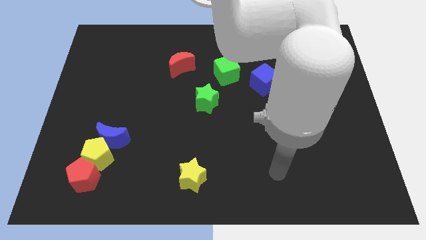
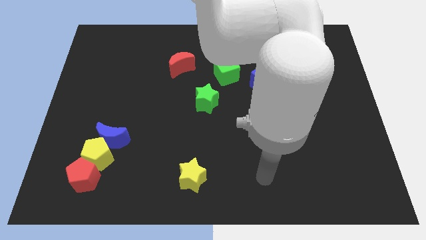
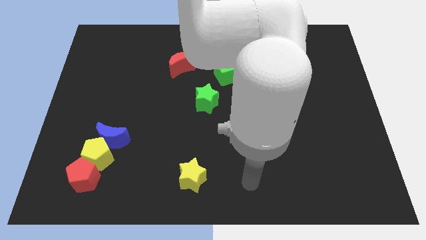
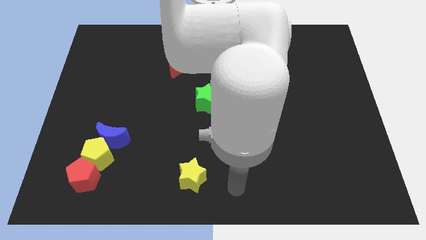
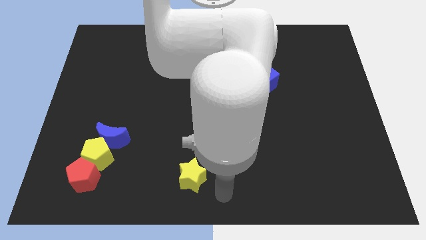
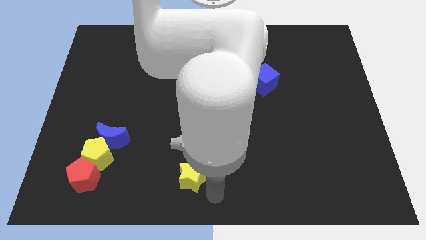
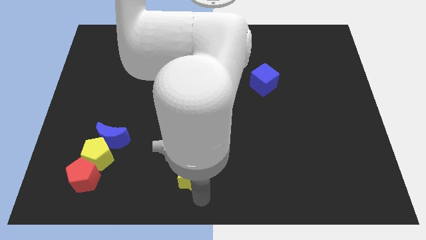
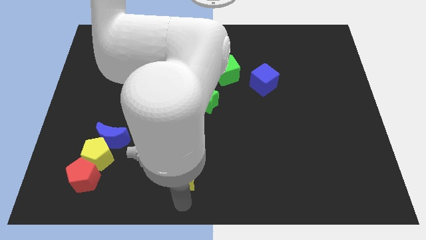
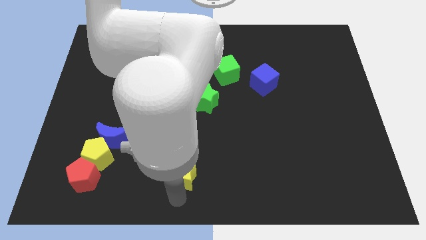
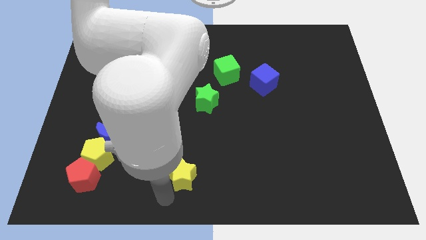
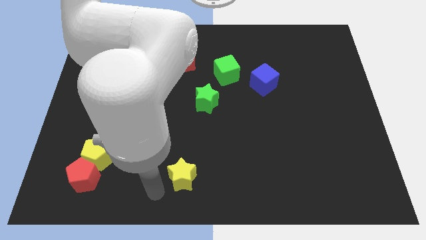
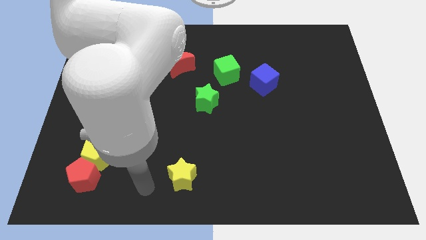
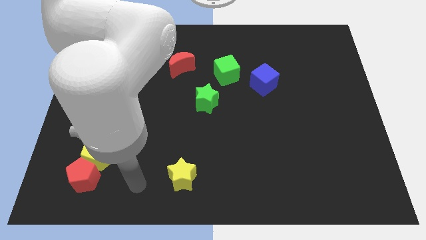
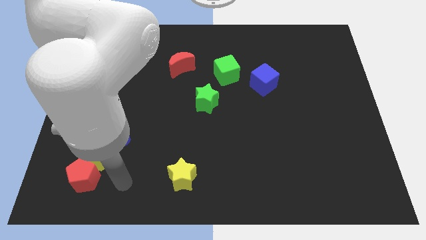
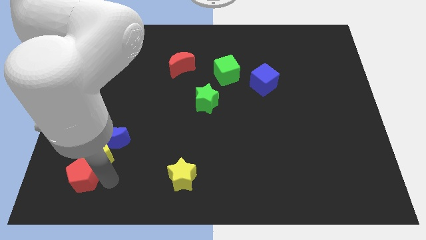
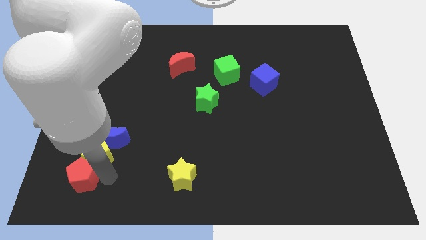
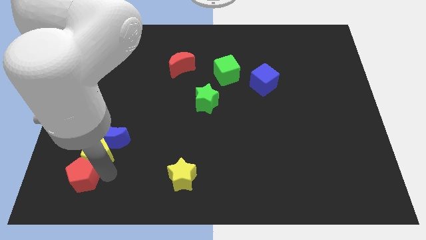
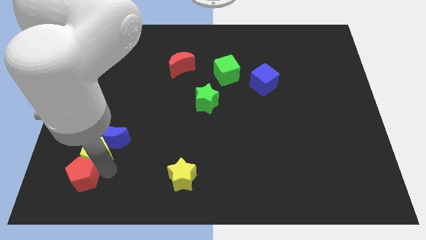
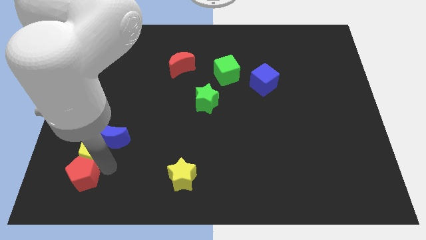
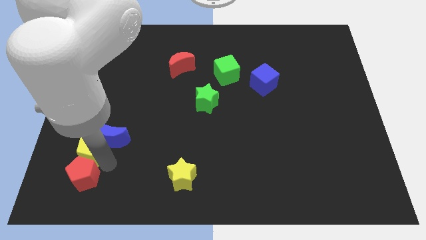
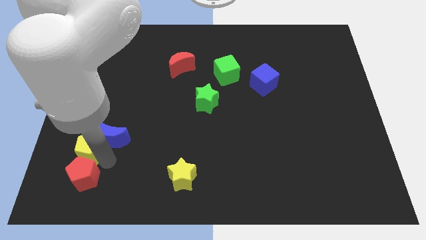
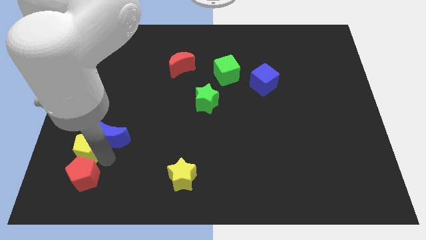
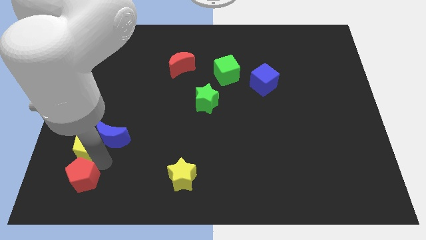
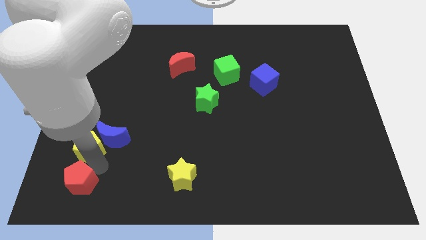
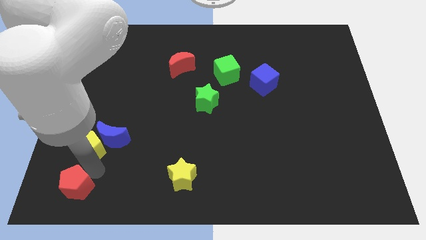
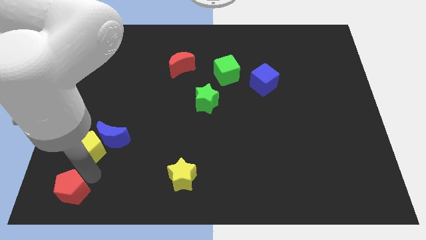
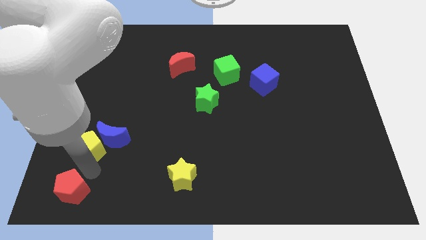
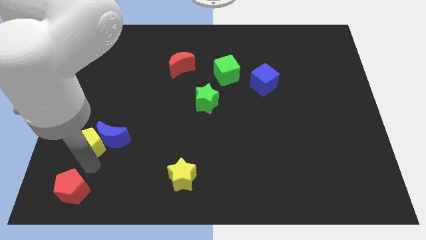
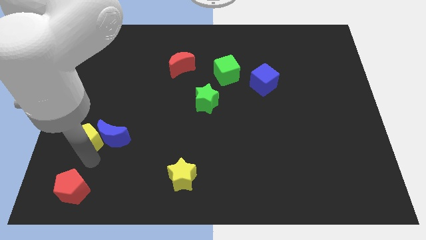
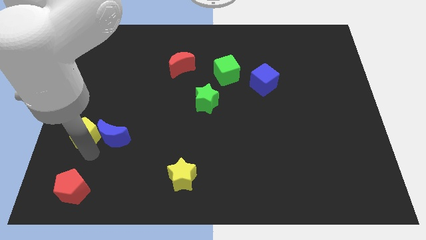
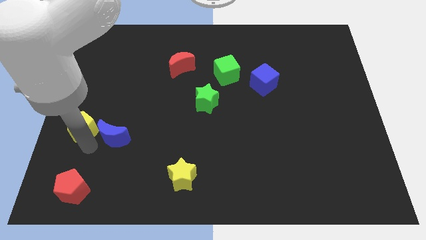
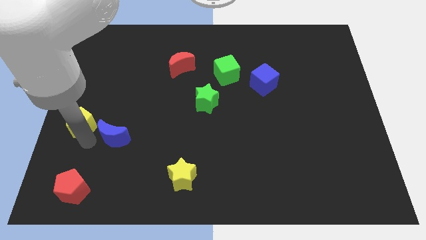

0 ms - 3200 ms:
pull the yellow pentagon apart from the blue moon and red pentagon

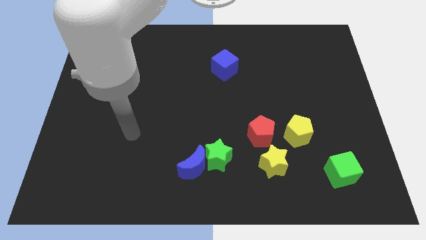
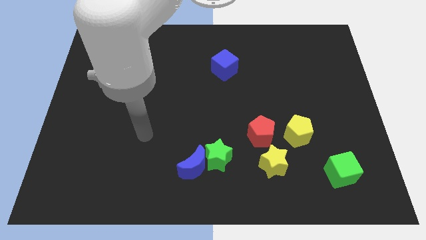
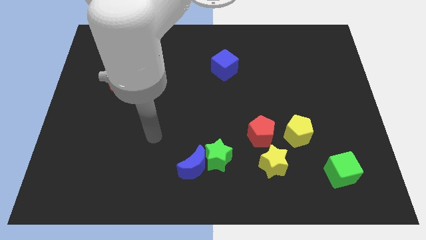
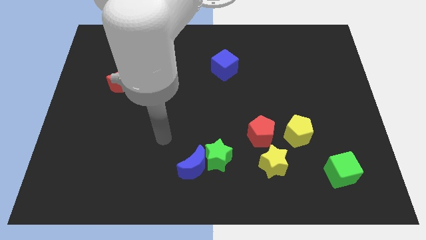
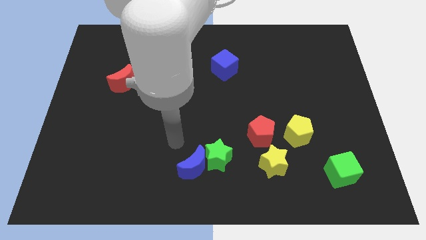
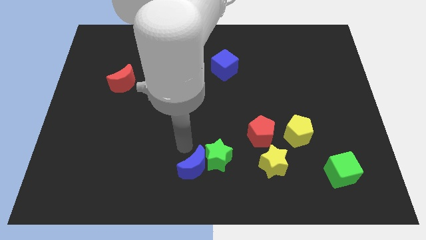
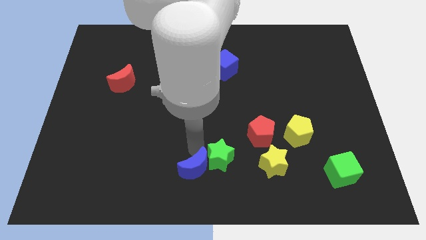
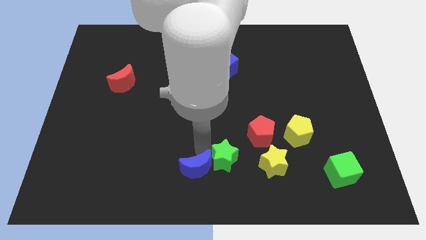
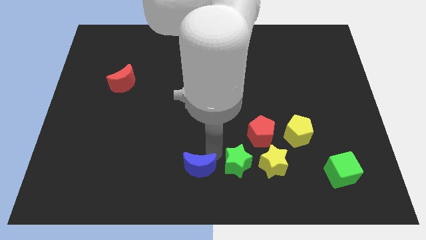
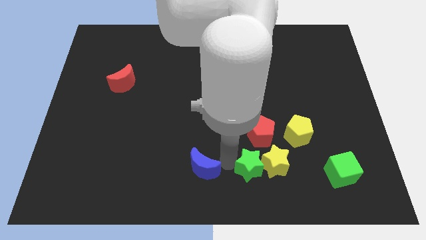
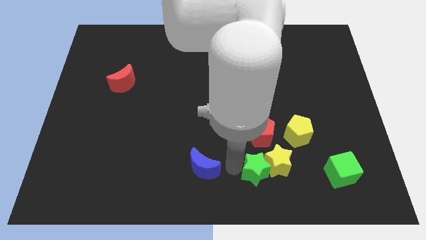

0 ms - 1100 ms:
separate the blue moon from the green star

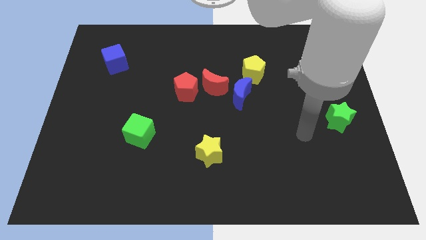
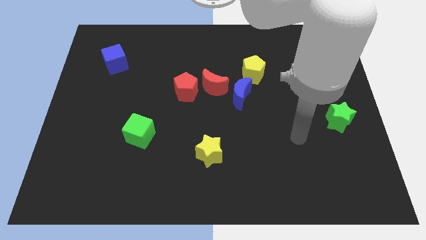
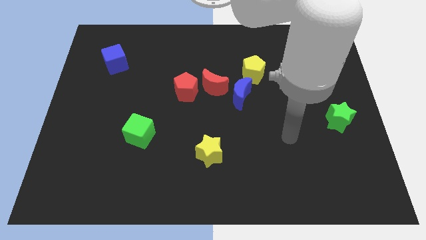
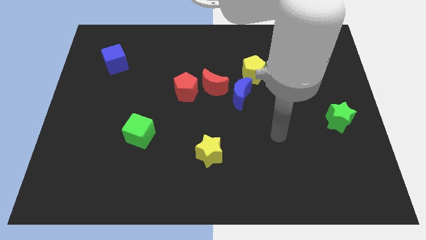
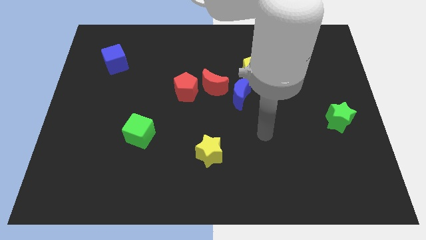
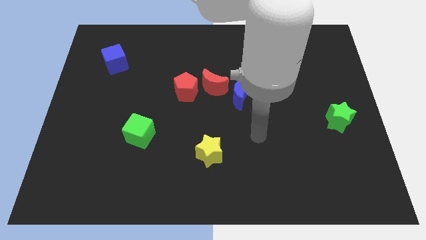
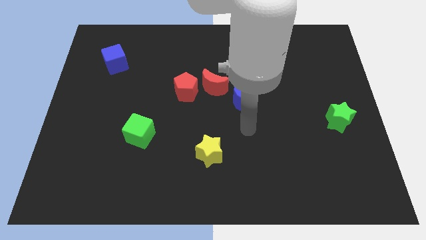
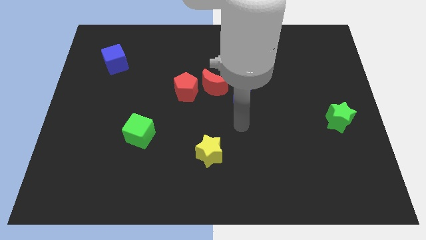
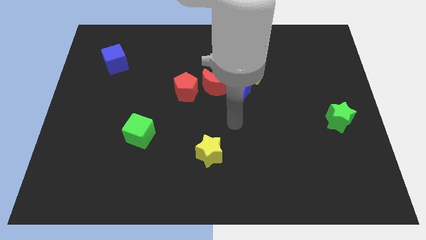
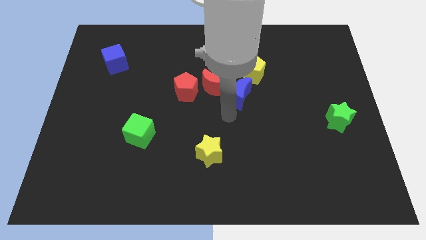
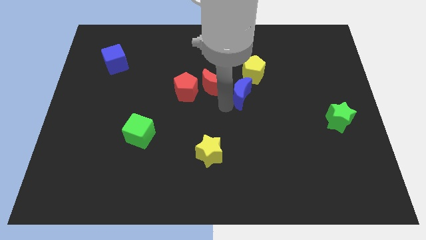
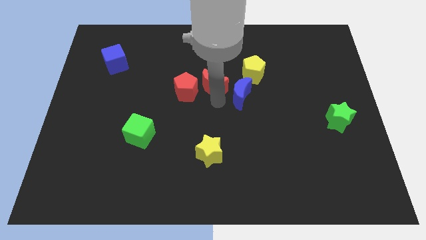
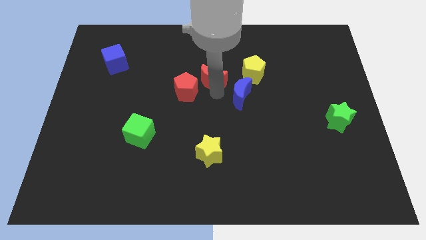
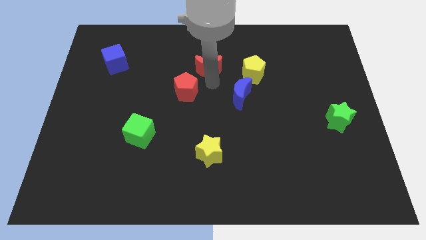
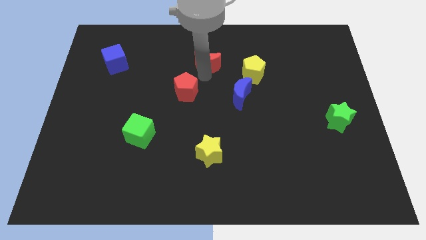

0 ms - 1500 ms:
move the red pentagon away from the red moon

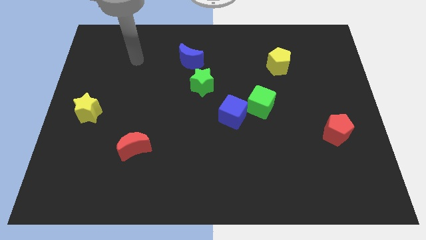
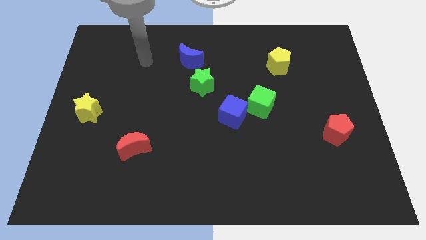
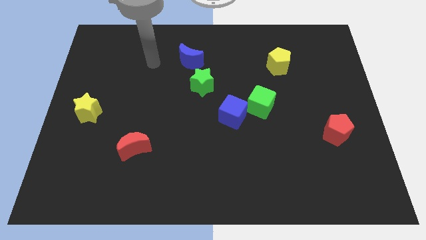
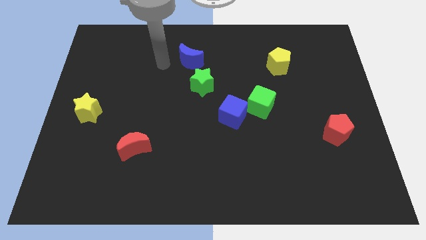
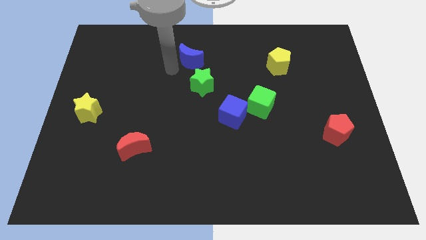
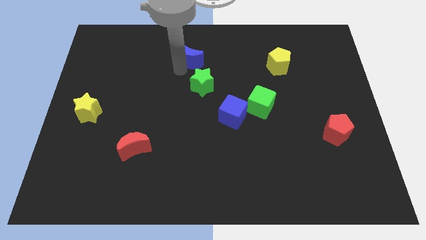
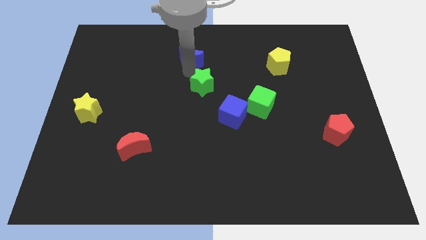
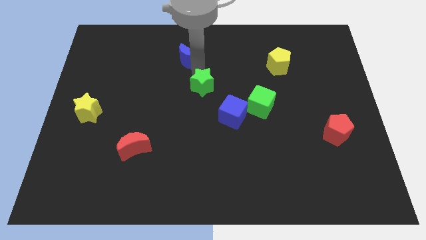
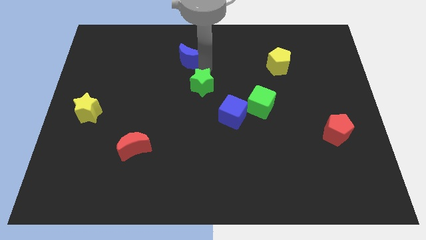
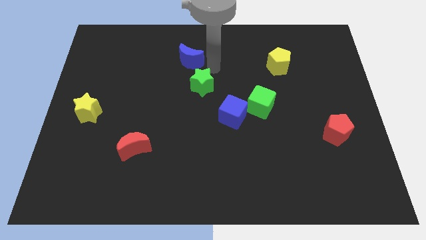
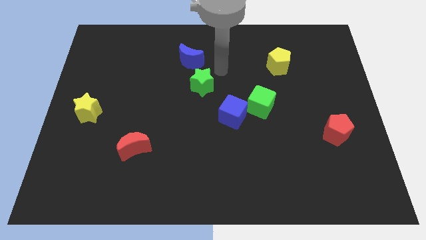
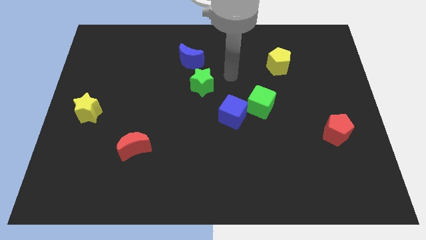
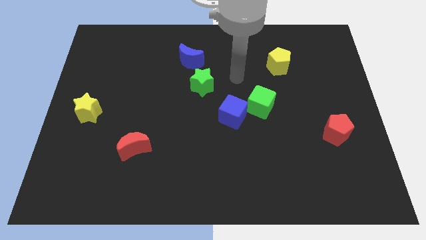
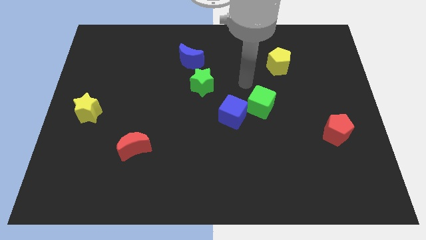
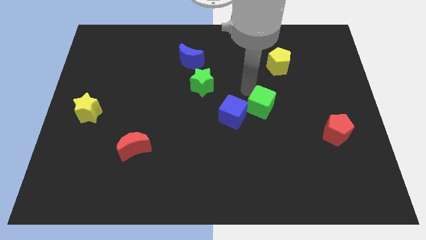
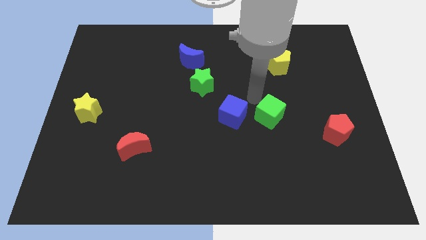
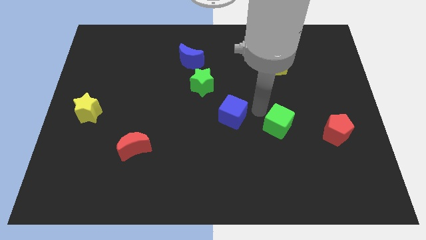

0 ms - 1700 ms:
pull the blue cube apart from the green cube

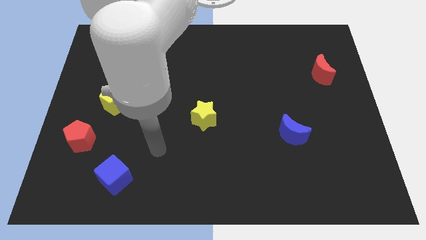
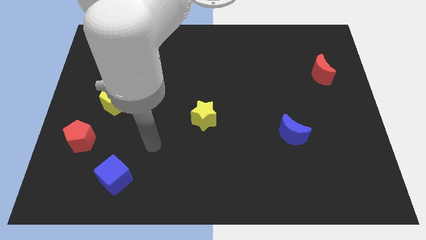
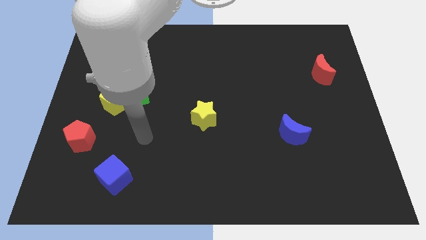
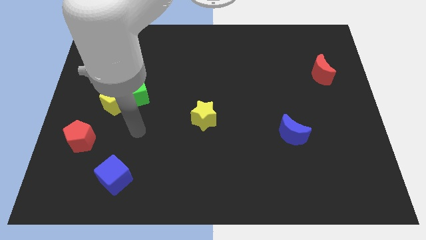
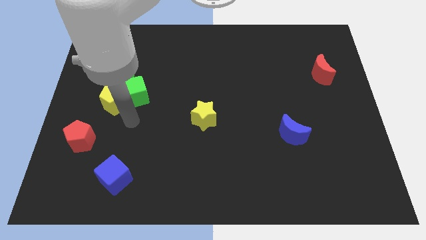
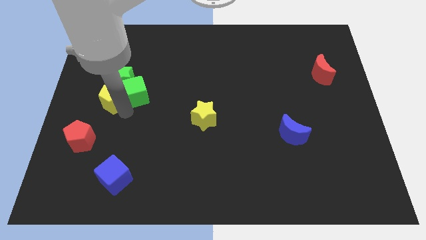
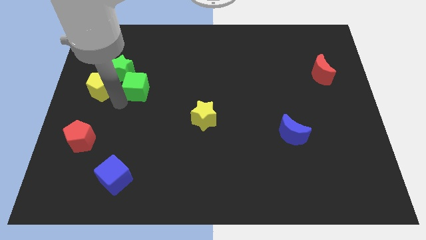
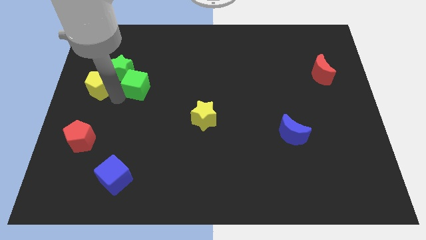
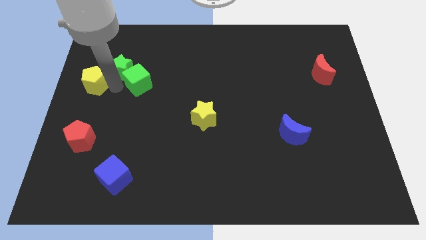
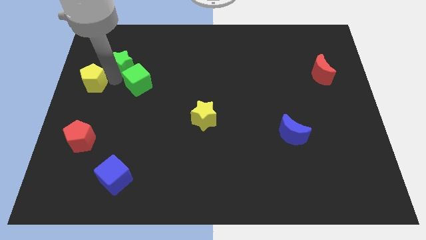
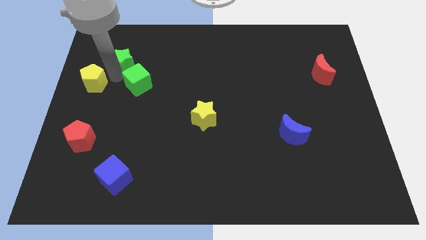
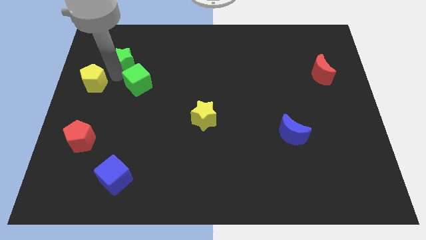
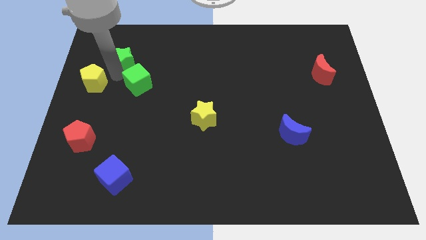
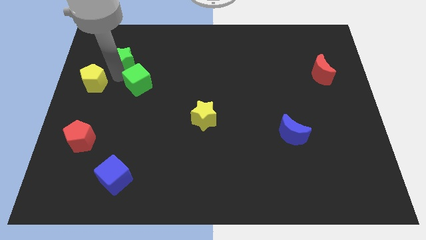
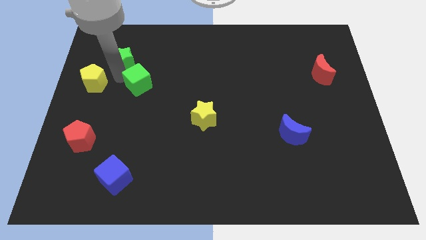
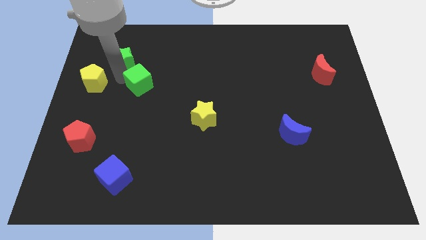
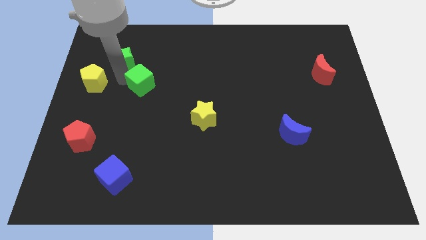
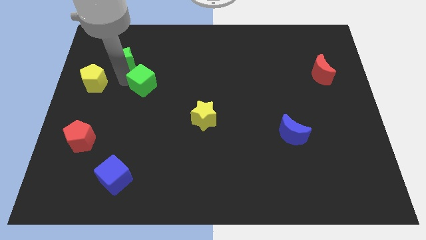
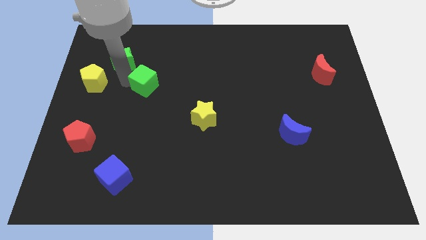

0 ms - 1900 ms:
move the green cube away from the yellow pentagon and green star
